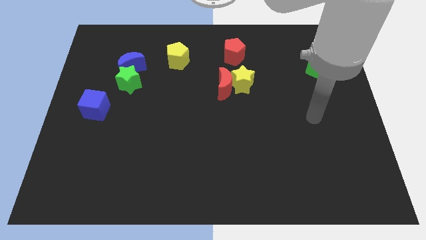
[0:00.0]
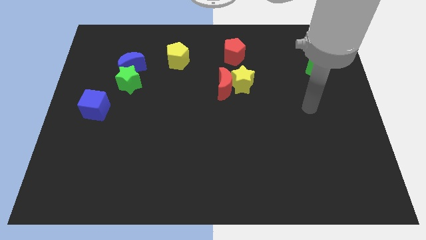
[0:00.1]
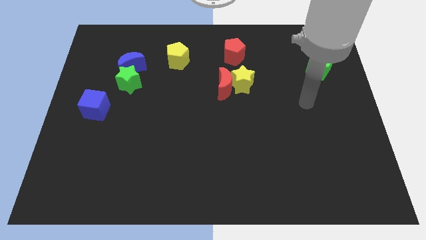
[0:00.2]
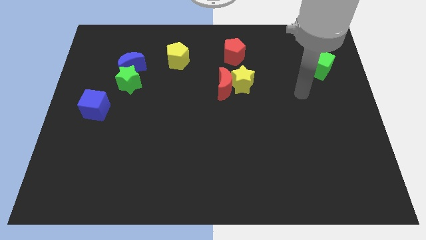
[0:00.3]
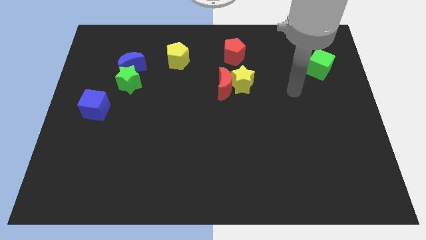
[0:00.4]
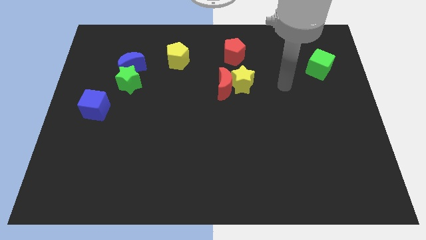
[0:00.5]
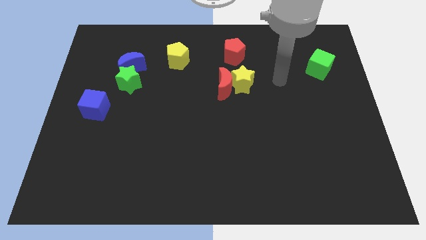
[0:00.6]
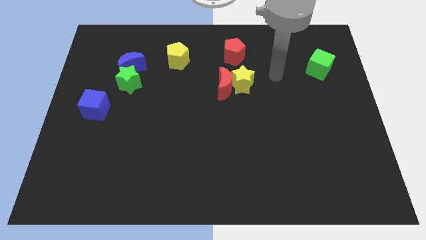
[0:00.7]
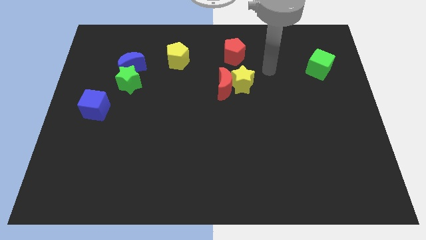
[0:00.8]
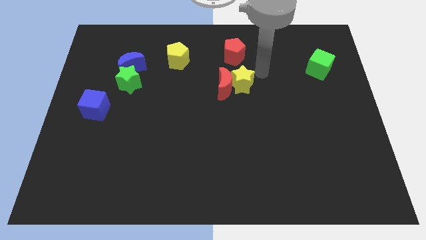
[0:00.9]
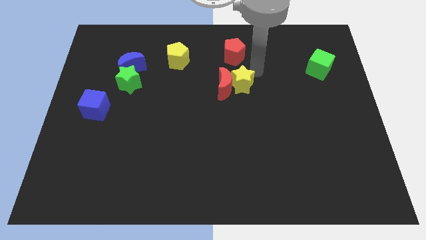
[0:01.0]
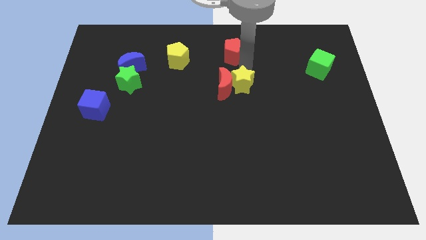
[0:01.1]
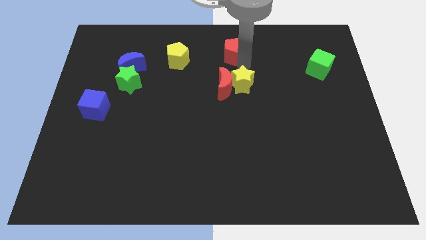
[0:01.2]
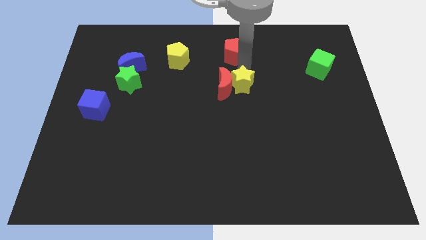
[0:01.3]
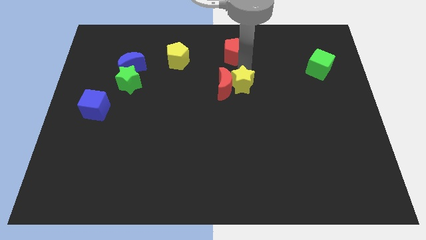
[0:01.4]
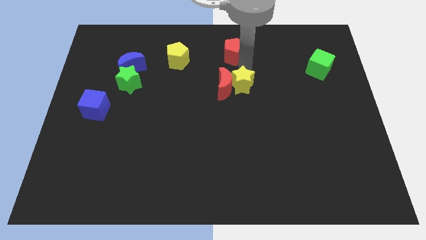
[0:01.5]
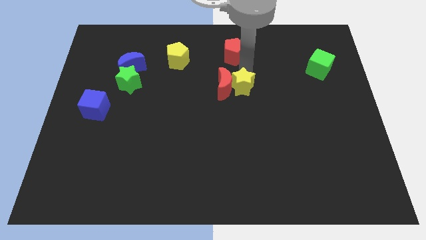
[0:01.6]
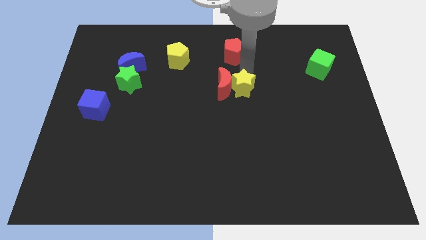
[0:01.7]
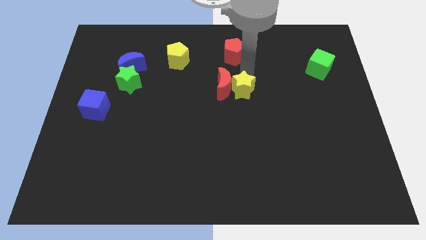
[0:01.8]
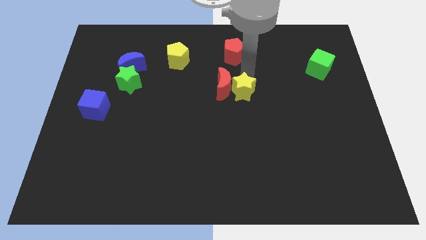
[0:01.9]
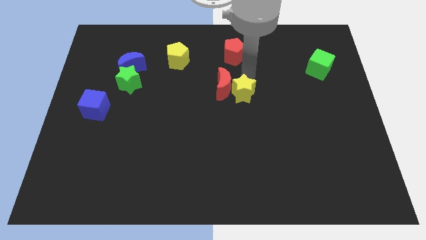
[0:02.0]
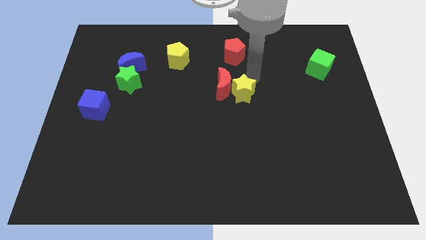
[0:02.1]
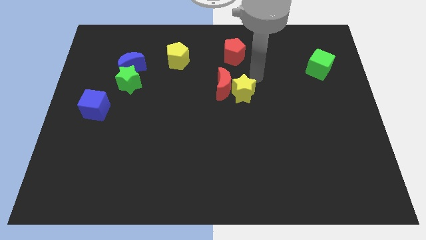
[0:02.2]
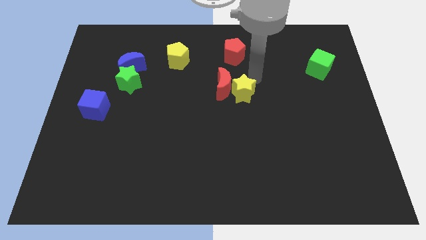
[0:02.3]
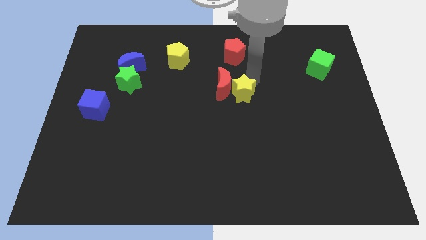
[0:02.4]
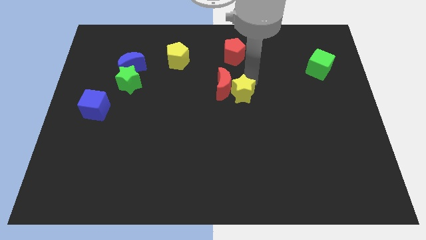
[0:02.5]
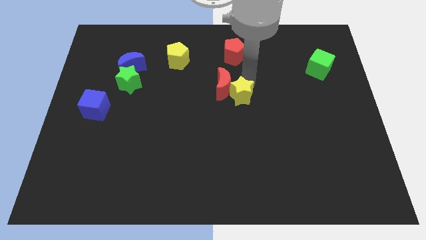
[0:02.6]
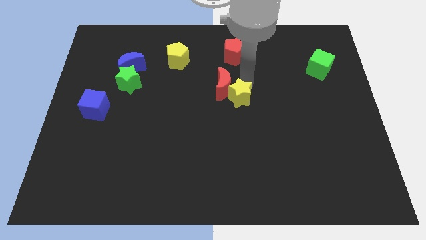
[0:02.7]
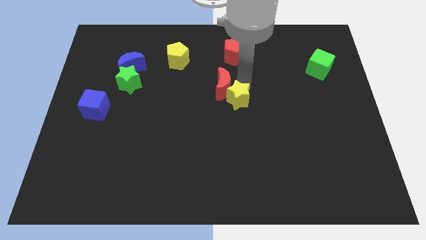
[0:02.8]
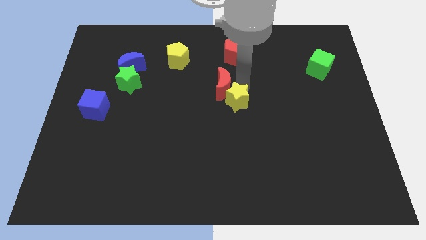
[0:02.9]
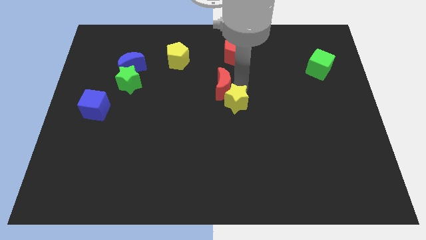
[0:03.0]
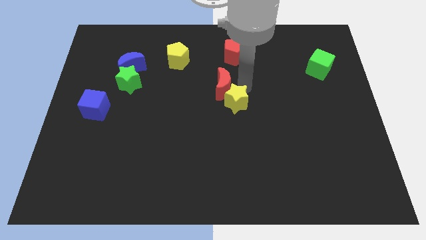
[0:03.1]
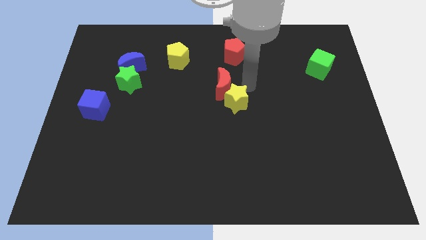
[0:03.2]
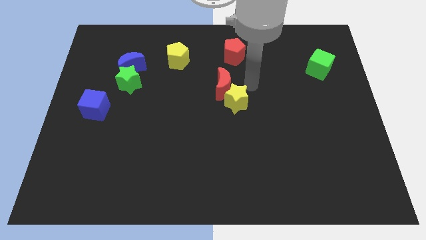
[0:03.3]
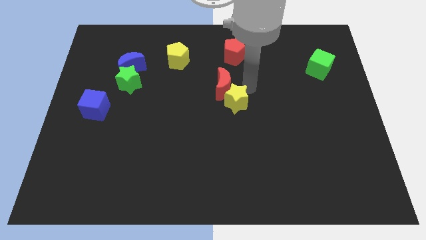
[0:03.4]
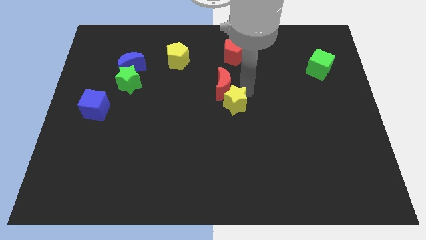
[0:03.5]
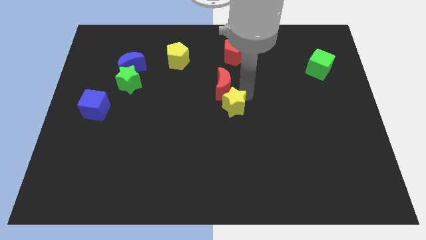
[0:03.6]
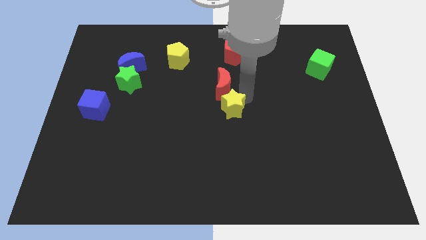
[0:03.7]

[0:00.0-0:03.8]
slightly slide the yellow star downwards and left

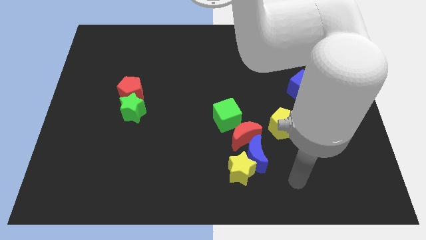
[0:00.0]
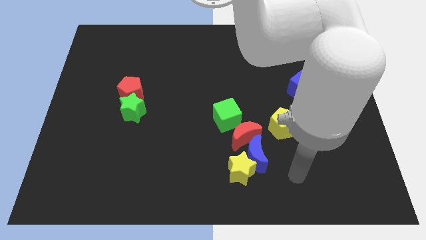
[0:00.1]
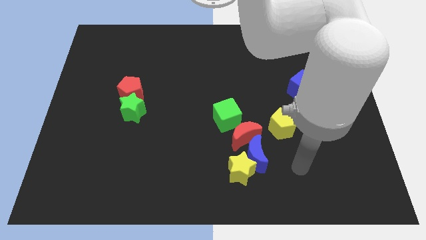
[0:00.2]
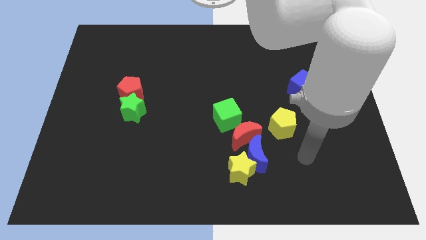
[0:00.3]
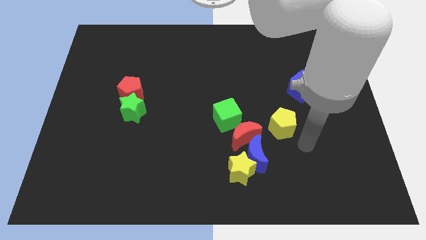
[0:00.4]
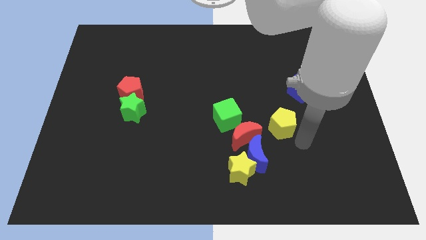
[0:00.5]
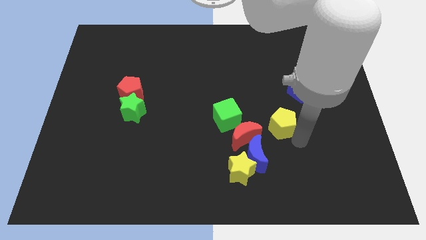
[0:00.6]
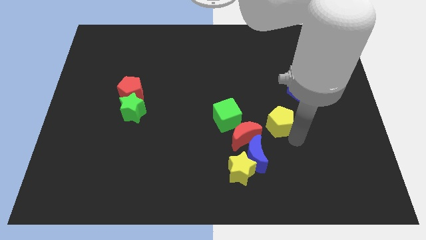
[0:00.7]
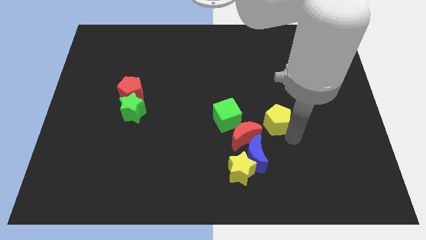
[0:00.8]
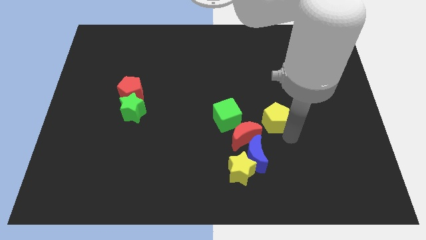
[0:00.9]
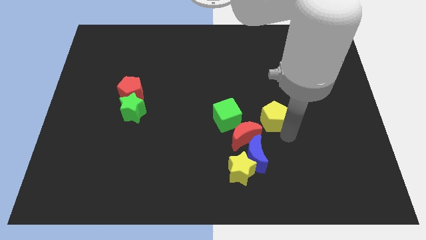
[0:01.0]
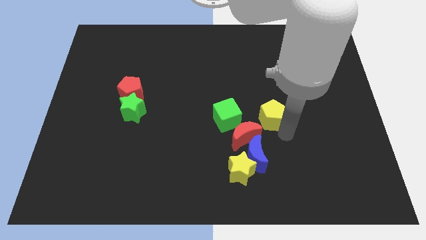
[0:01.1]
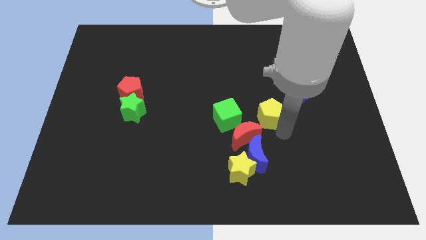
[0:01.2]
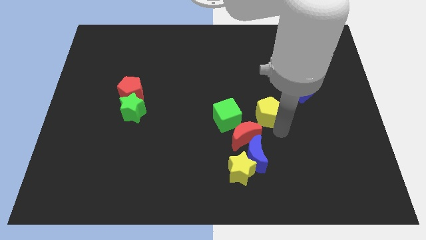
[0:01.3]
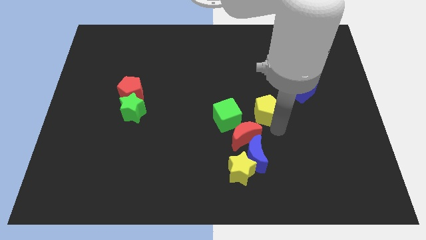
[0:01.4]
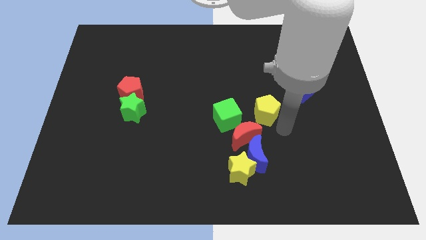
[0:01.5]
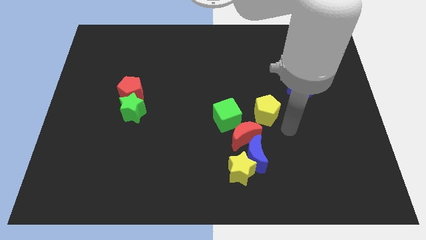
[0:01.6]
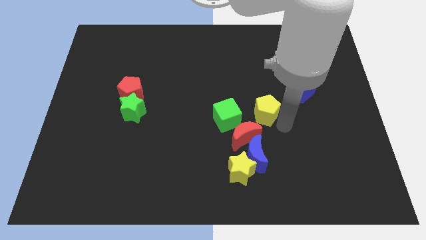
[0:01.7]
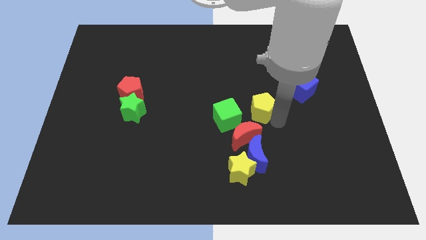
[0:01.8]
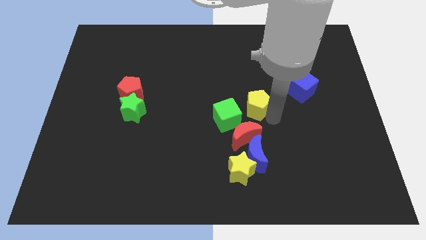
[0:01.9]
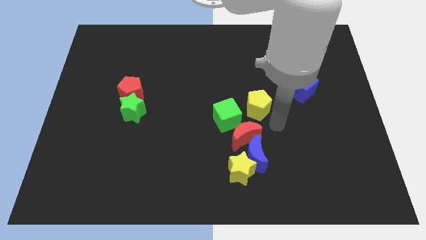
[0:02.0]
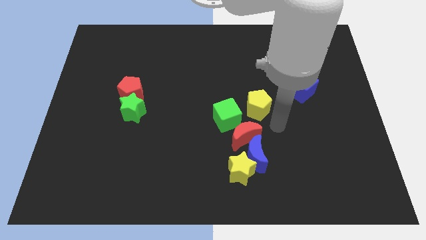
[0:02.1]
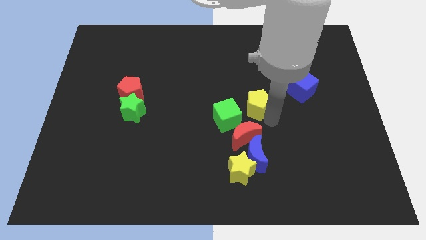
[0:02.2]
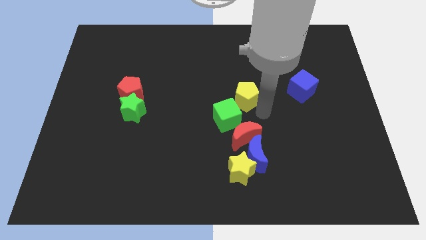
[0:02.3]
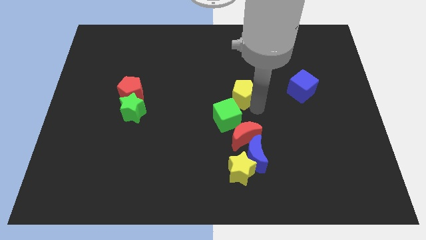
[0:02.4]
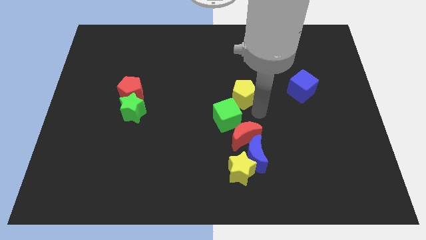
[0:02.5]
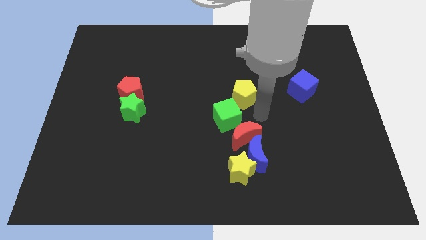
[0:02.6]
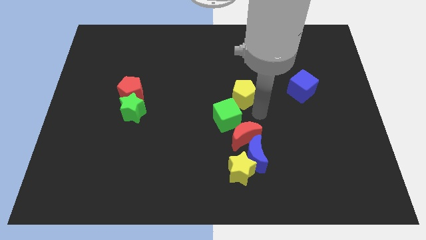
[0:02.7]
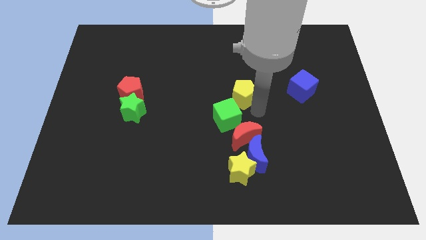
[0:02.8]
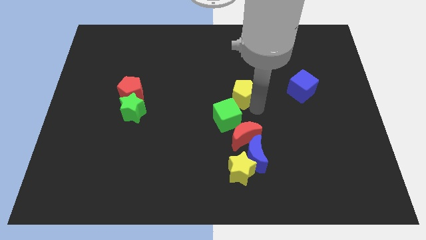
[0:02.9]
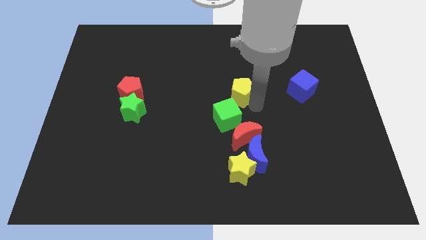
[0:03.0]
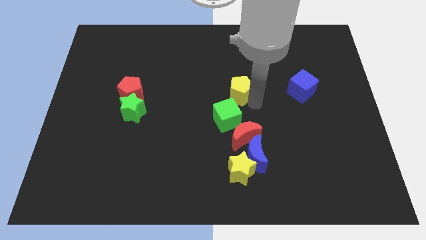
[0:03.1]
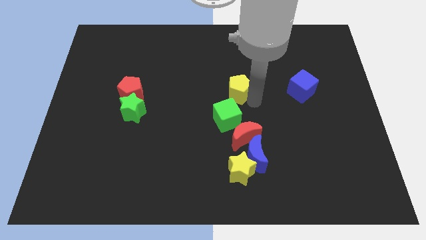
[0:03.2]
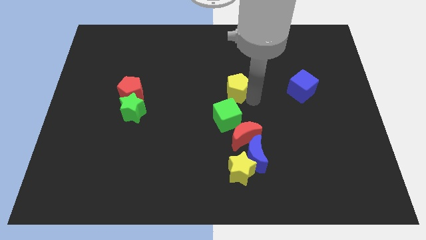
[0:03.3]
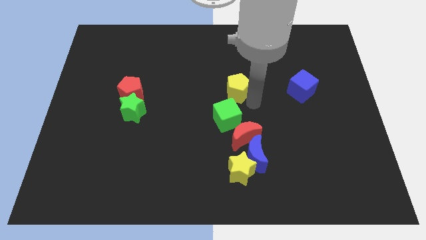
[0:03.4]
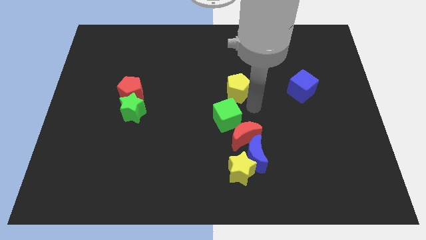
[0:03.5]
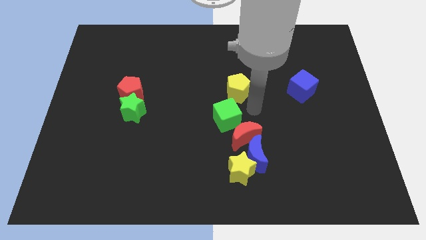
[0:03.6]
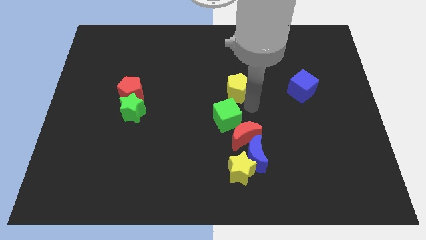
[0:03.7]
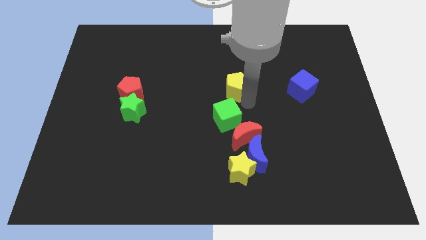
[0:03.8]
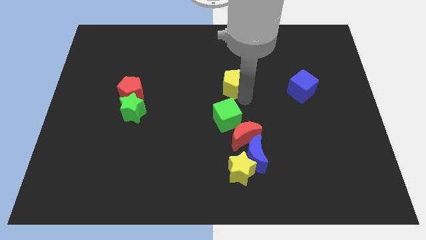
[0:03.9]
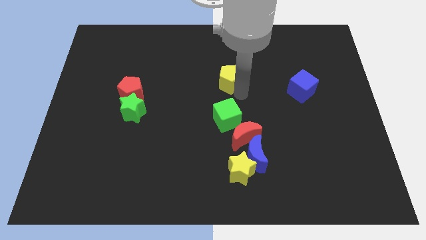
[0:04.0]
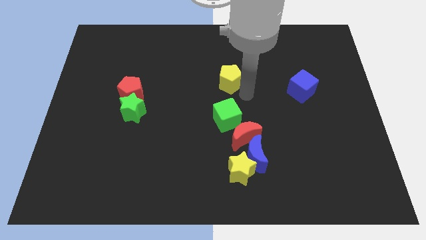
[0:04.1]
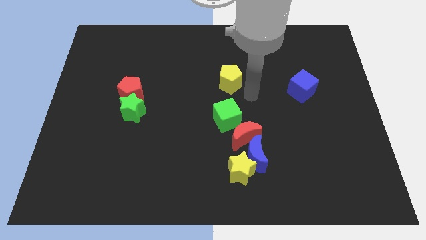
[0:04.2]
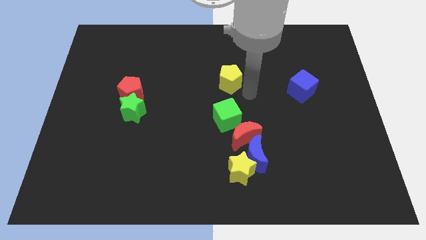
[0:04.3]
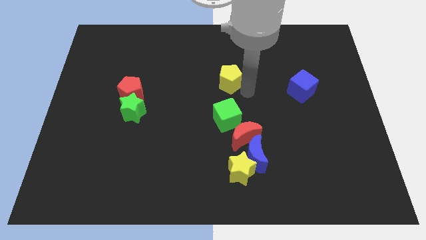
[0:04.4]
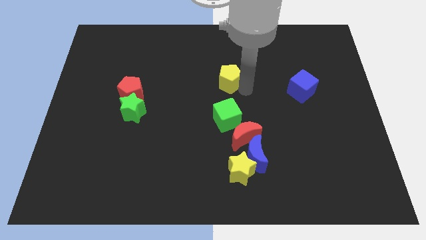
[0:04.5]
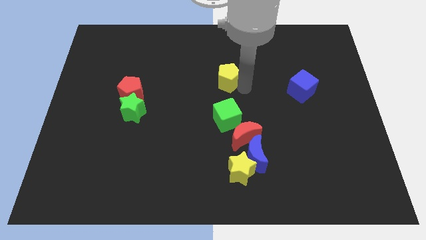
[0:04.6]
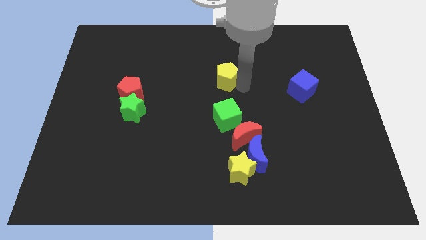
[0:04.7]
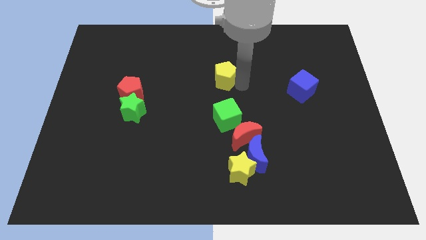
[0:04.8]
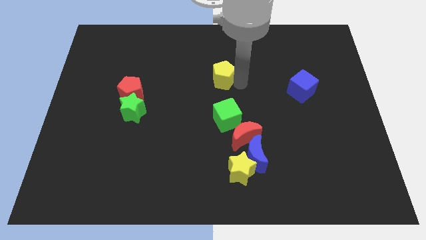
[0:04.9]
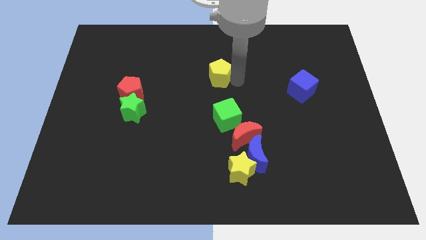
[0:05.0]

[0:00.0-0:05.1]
push the yellow pentagon diagonally upwards and left
